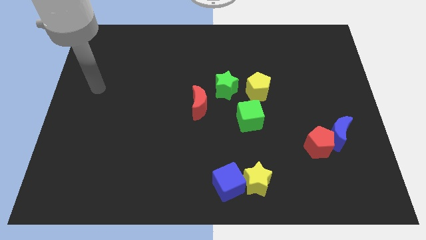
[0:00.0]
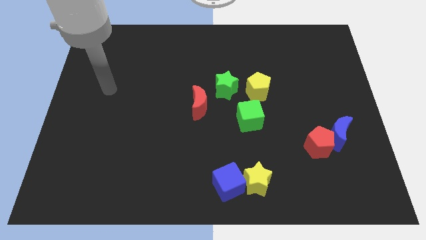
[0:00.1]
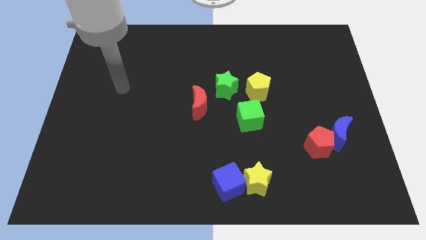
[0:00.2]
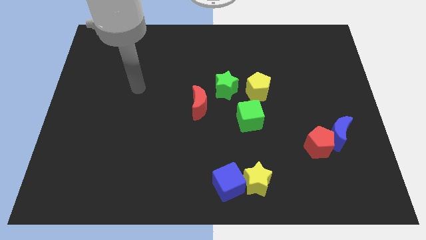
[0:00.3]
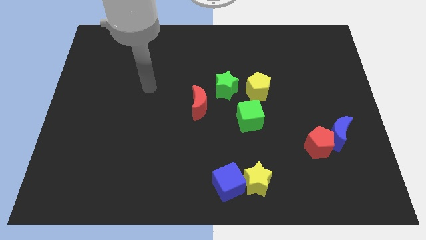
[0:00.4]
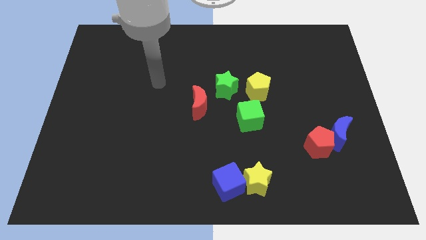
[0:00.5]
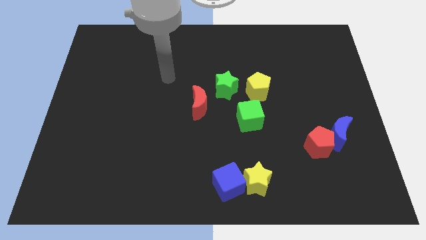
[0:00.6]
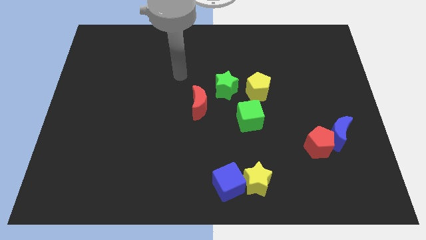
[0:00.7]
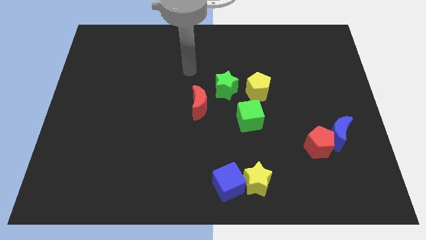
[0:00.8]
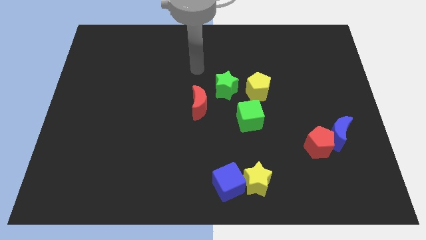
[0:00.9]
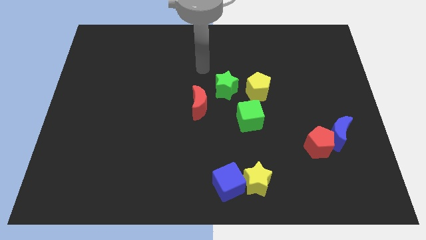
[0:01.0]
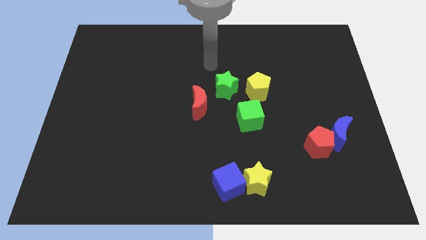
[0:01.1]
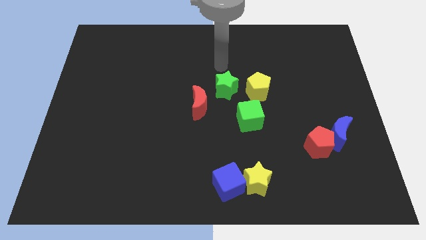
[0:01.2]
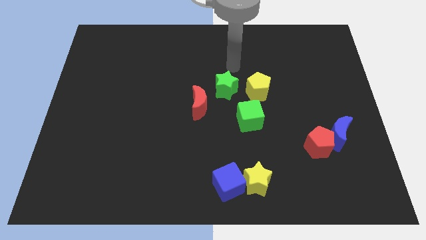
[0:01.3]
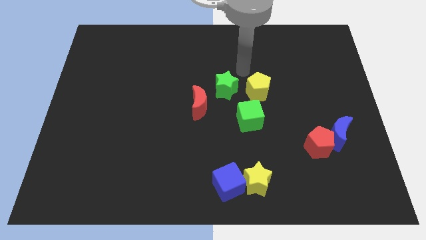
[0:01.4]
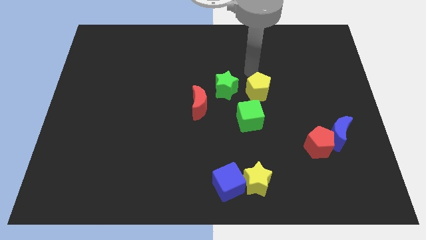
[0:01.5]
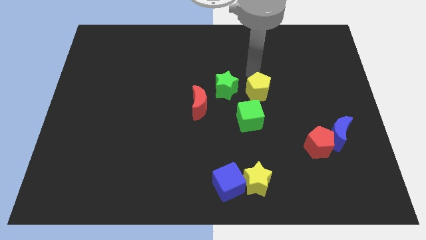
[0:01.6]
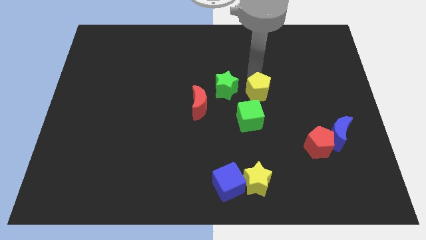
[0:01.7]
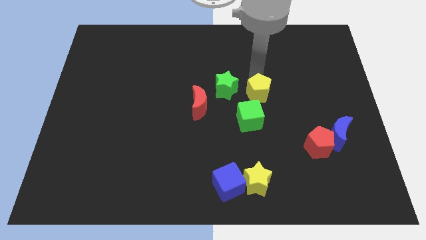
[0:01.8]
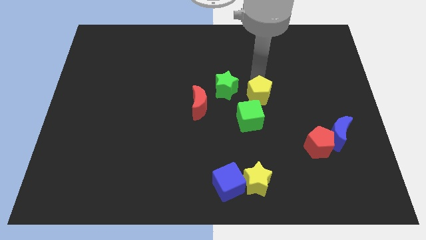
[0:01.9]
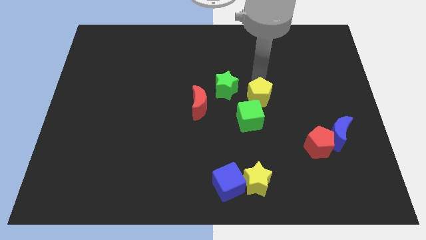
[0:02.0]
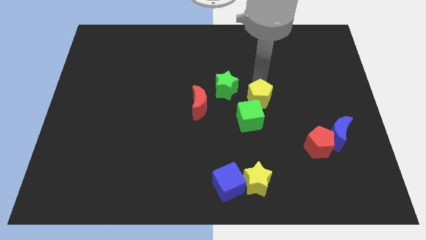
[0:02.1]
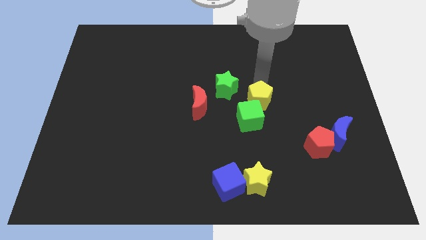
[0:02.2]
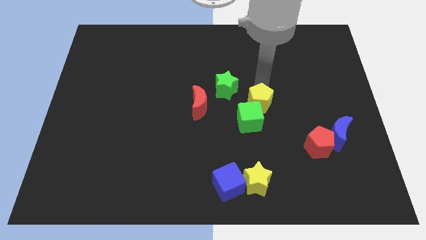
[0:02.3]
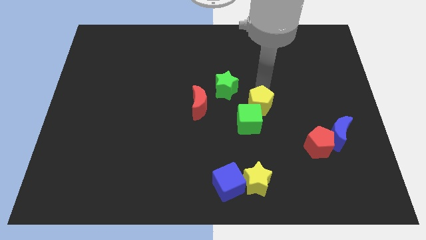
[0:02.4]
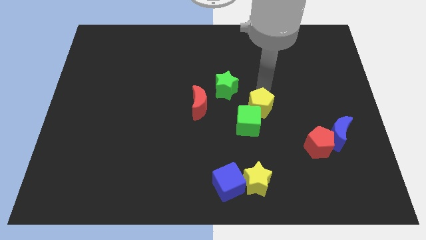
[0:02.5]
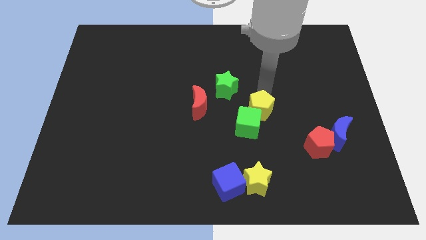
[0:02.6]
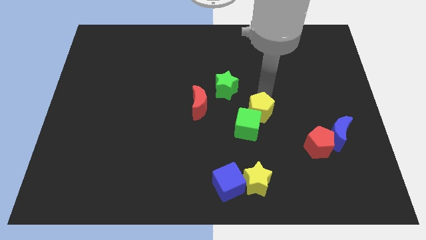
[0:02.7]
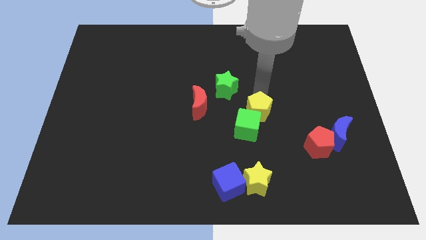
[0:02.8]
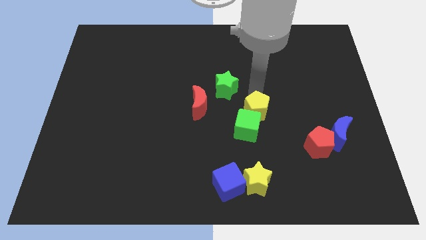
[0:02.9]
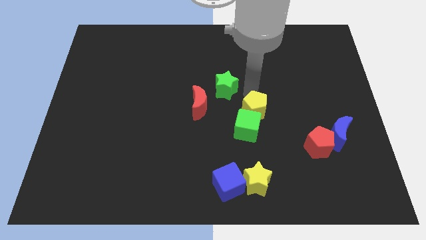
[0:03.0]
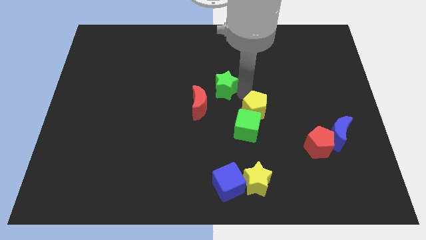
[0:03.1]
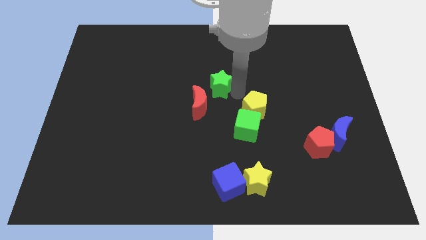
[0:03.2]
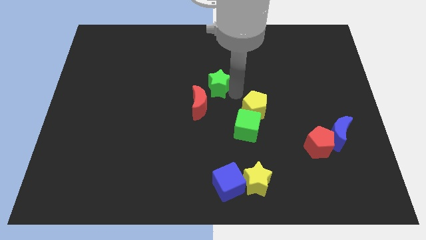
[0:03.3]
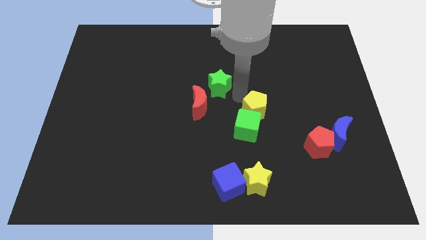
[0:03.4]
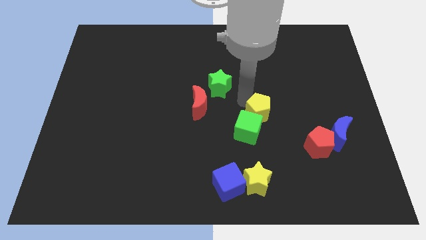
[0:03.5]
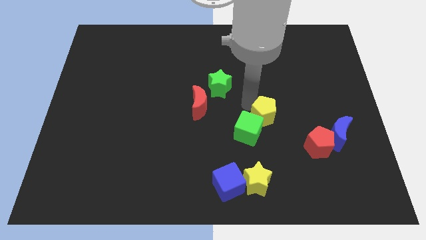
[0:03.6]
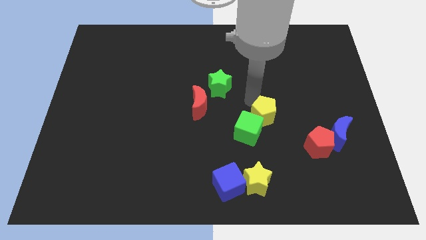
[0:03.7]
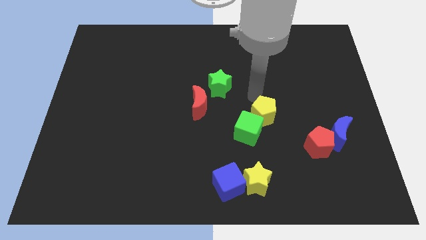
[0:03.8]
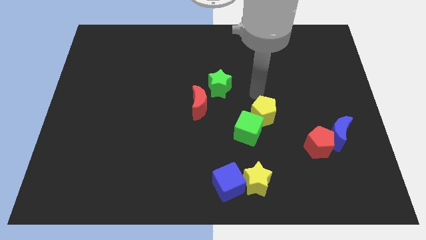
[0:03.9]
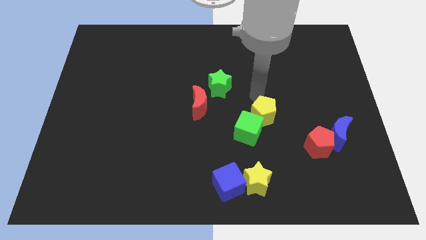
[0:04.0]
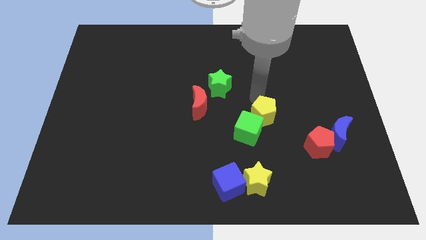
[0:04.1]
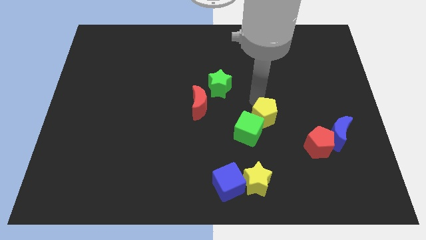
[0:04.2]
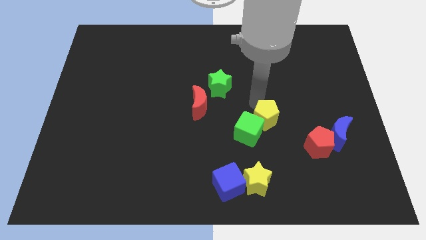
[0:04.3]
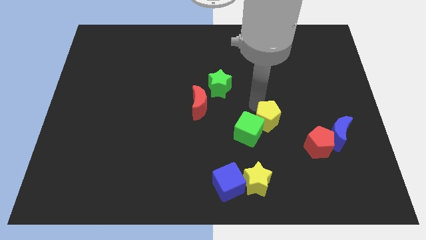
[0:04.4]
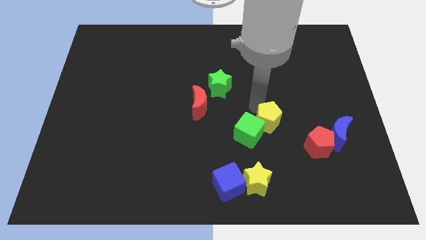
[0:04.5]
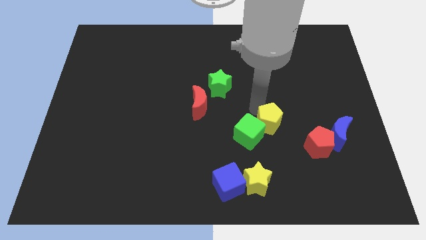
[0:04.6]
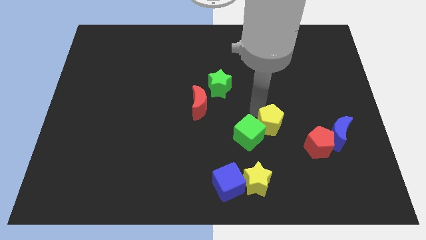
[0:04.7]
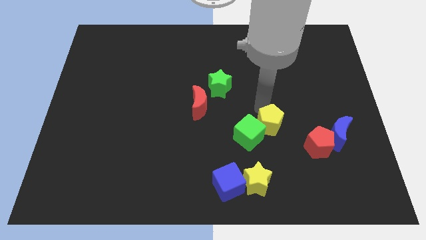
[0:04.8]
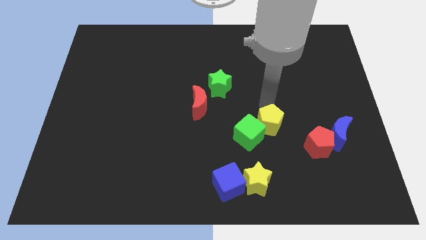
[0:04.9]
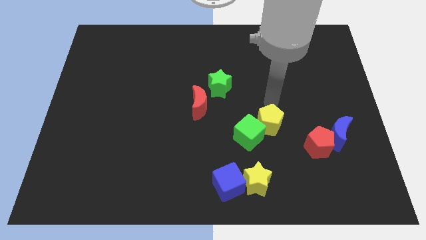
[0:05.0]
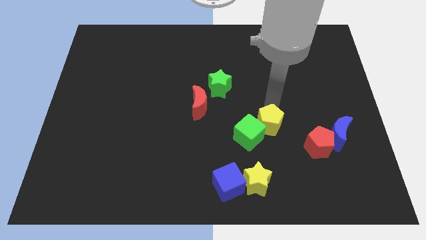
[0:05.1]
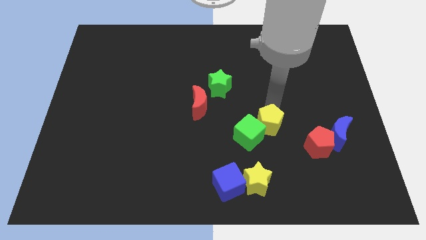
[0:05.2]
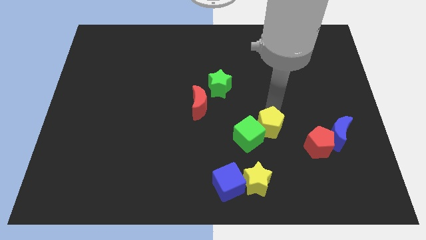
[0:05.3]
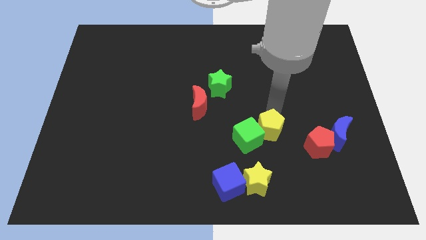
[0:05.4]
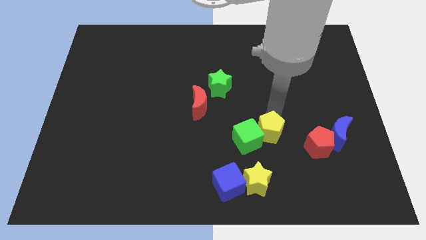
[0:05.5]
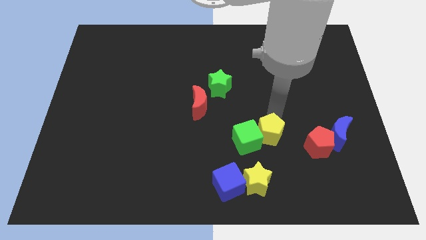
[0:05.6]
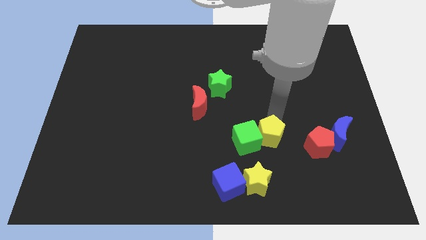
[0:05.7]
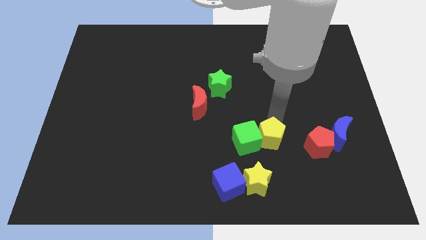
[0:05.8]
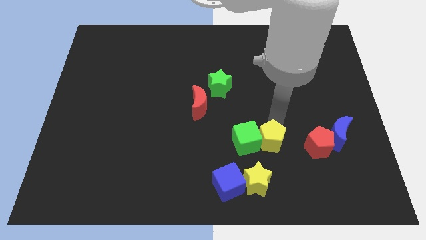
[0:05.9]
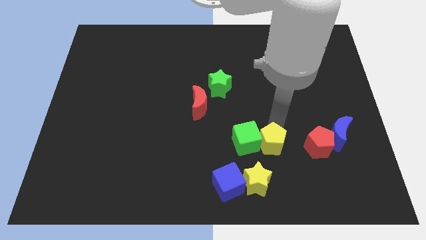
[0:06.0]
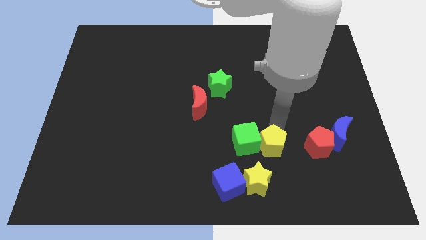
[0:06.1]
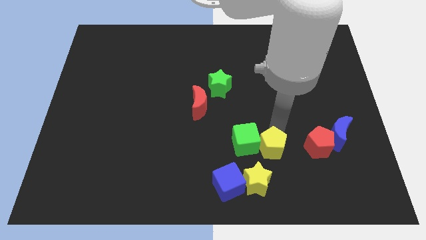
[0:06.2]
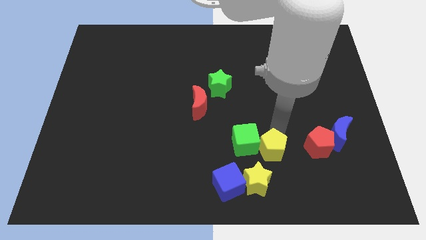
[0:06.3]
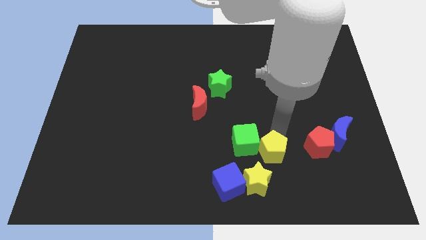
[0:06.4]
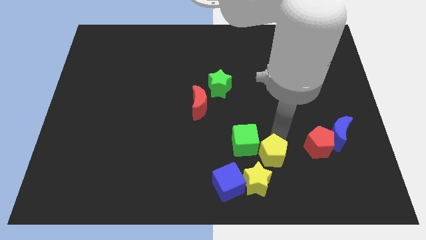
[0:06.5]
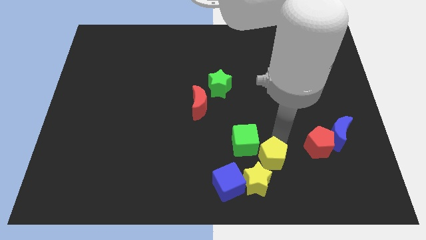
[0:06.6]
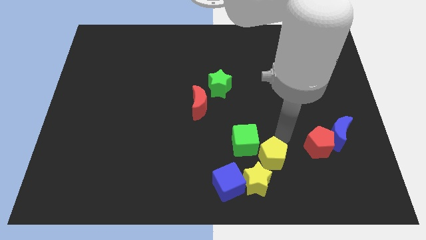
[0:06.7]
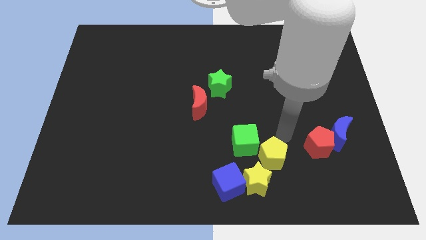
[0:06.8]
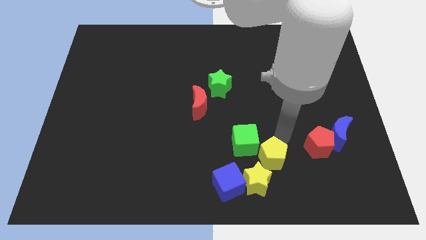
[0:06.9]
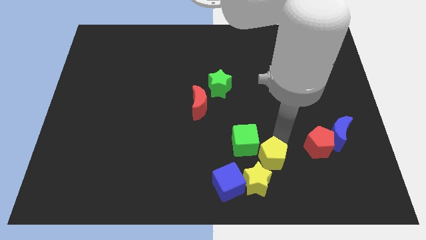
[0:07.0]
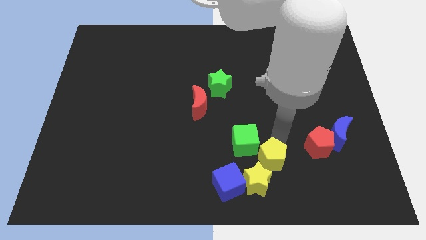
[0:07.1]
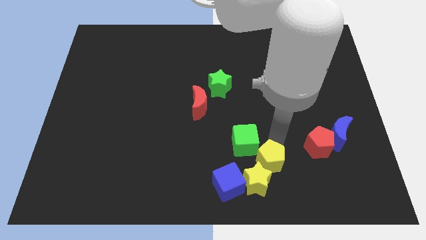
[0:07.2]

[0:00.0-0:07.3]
slide the yellow pentagon close to the yellow star
